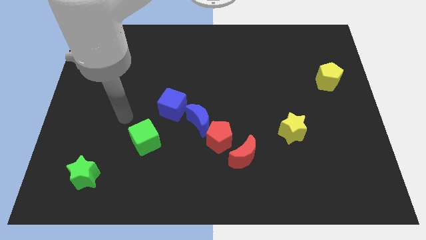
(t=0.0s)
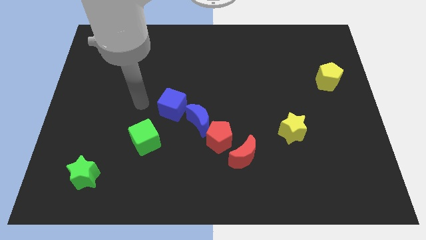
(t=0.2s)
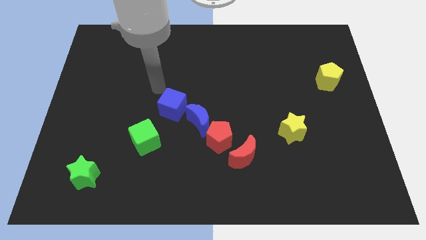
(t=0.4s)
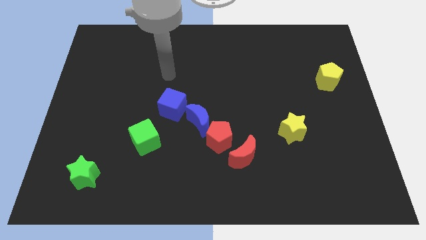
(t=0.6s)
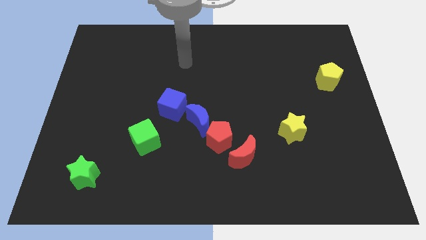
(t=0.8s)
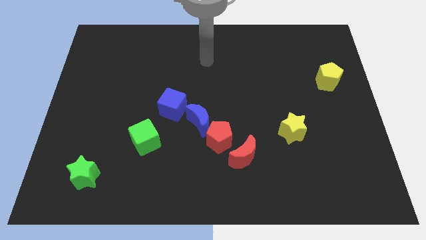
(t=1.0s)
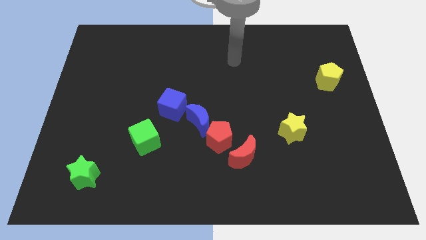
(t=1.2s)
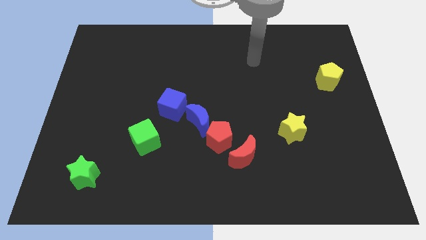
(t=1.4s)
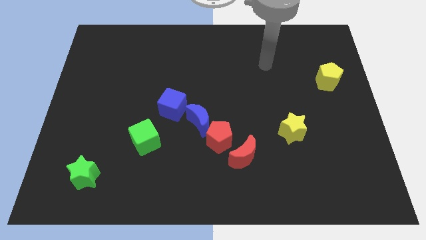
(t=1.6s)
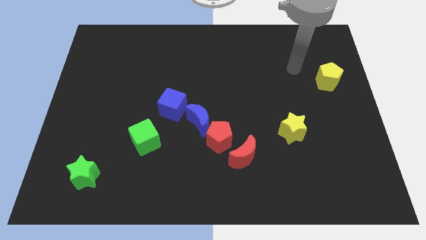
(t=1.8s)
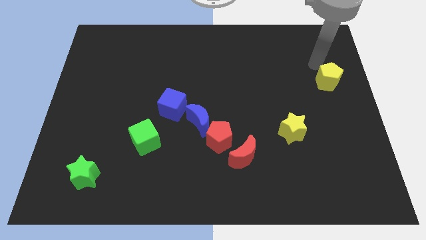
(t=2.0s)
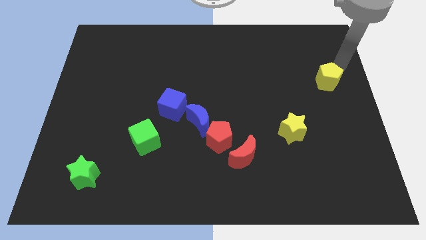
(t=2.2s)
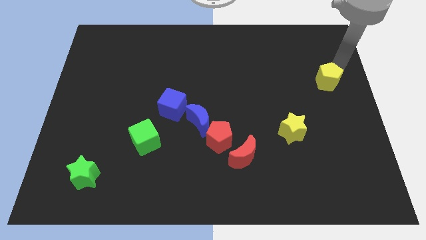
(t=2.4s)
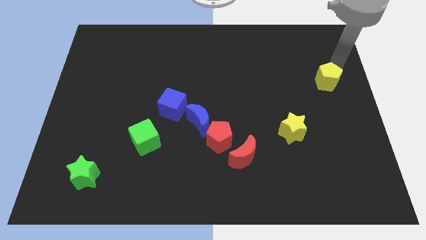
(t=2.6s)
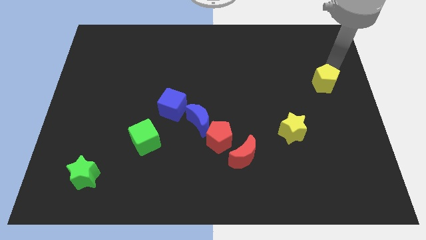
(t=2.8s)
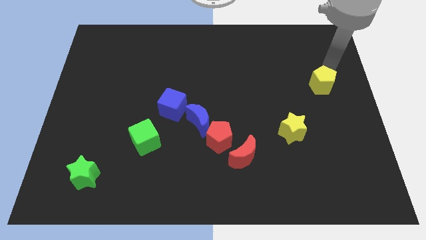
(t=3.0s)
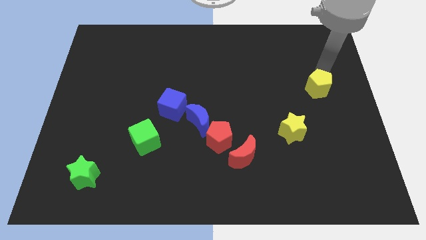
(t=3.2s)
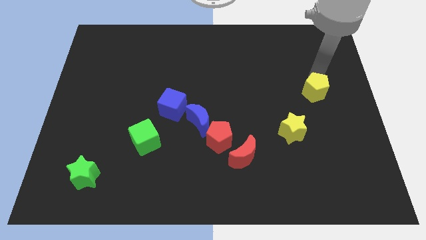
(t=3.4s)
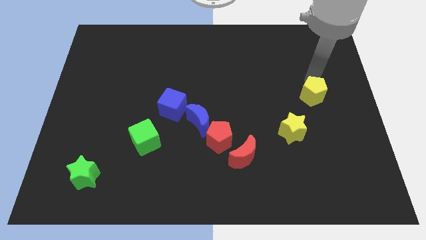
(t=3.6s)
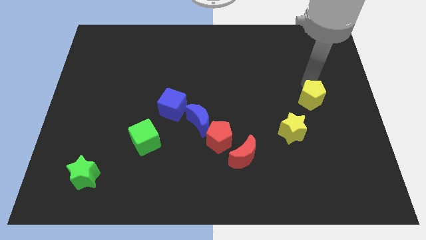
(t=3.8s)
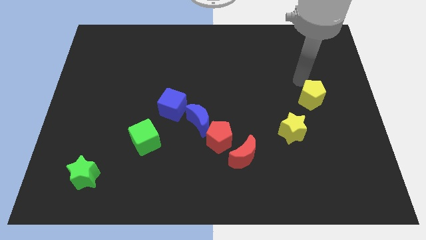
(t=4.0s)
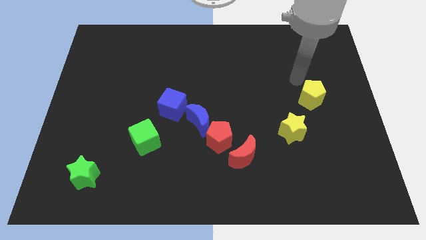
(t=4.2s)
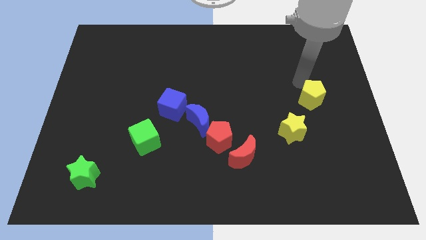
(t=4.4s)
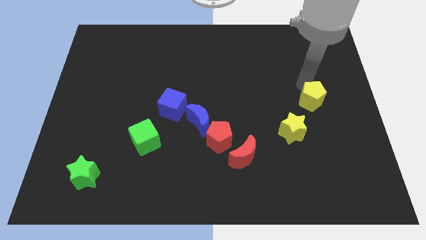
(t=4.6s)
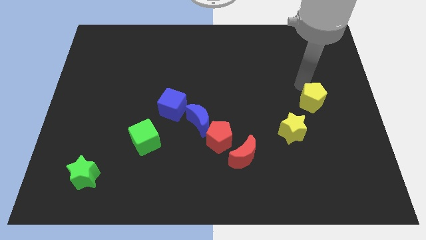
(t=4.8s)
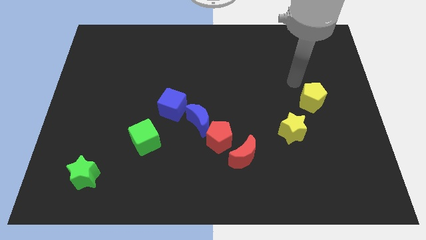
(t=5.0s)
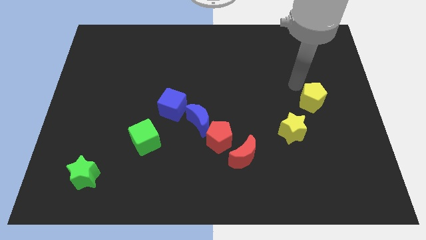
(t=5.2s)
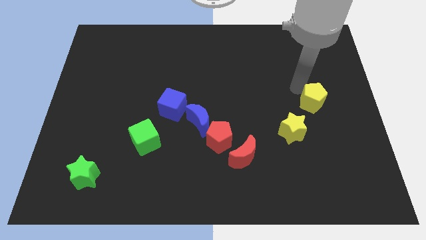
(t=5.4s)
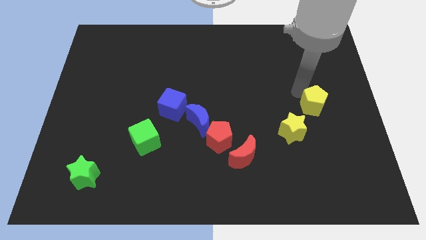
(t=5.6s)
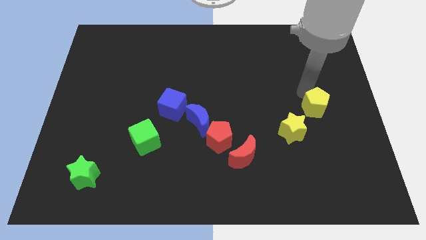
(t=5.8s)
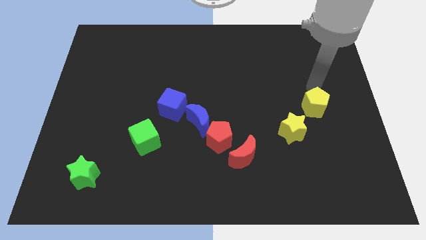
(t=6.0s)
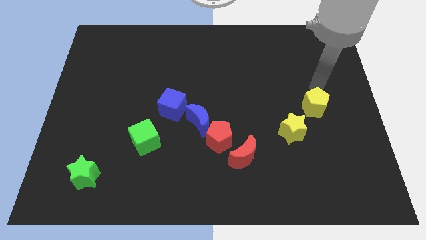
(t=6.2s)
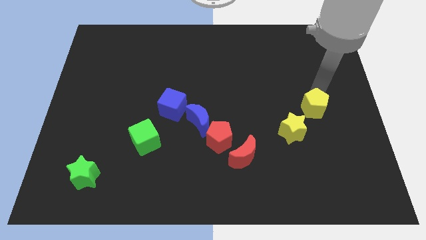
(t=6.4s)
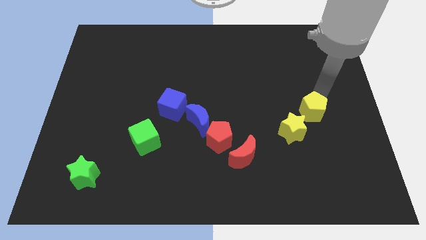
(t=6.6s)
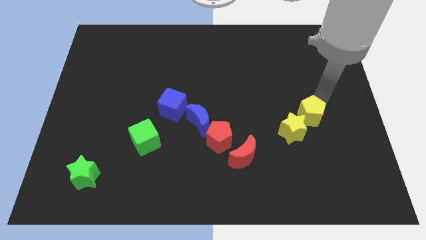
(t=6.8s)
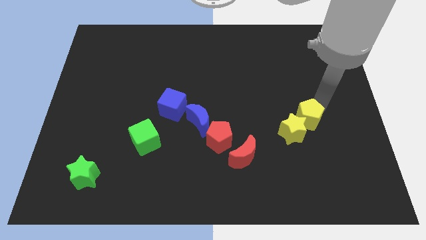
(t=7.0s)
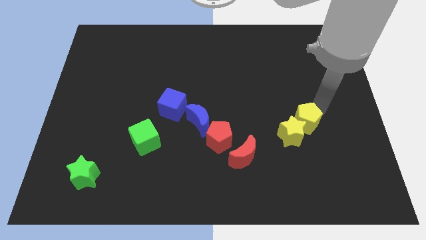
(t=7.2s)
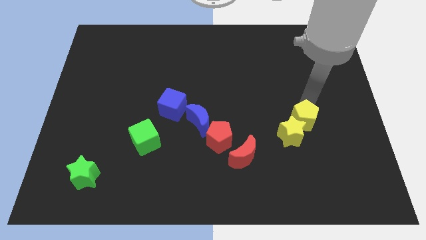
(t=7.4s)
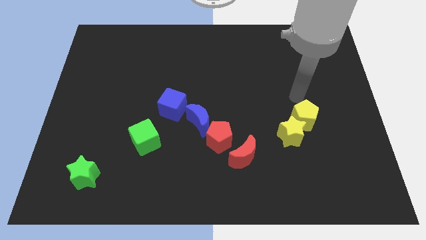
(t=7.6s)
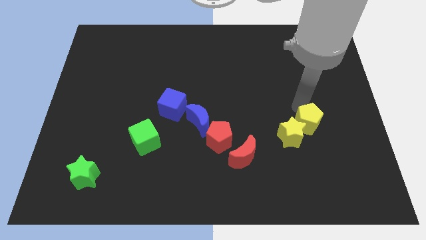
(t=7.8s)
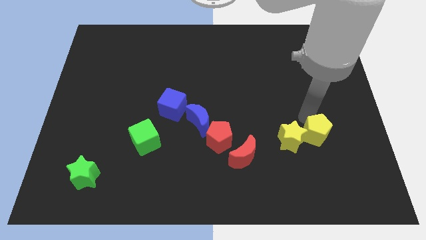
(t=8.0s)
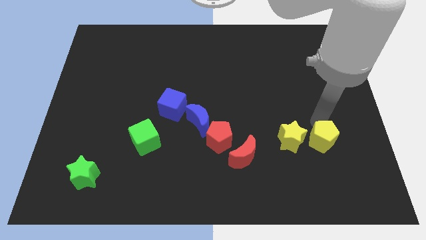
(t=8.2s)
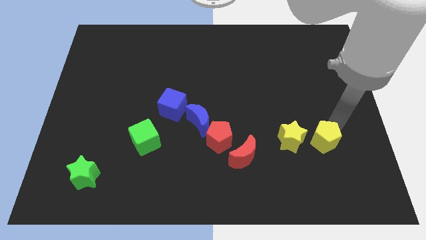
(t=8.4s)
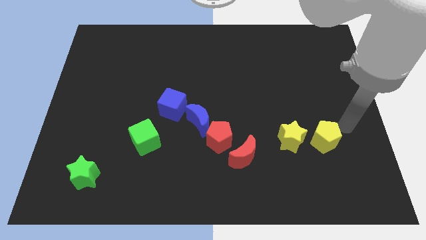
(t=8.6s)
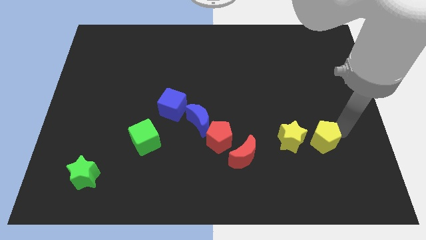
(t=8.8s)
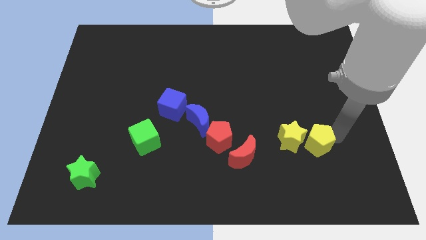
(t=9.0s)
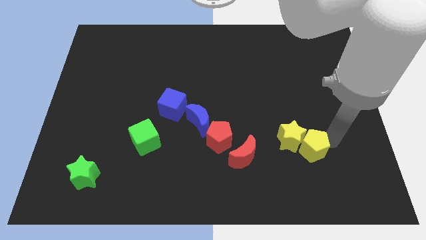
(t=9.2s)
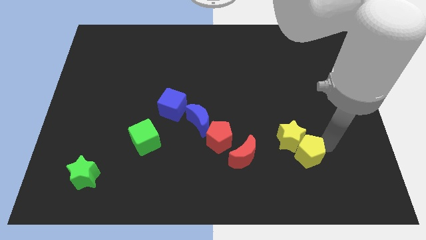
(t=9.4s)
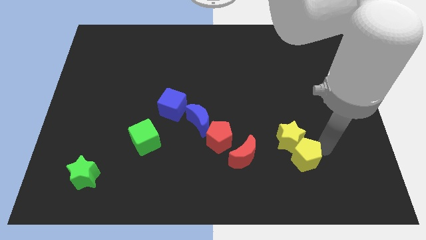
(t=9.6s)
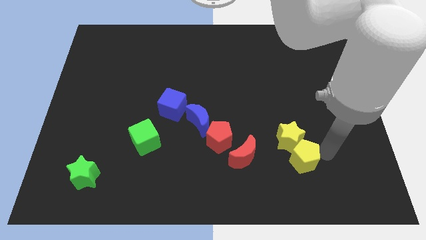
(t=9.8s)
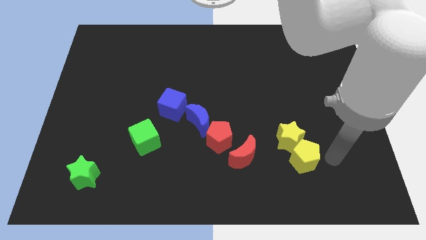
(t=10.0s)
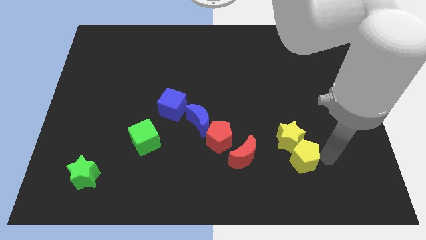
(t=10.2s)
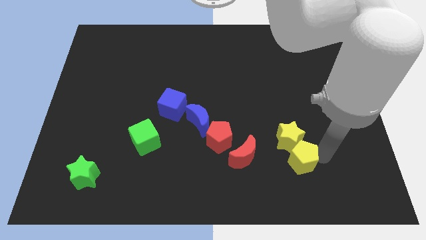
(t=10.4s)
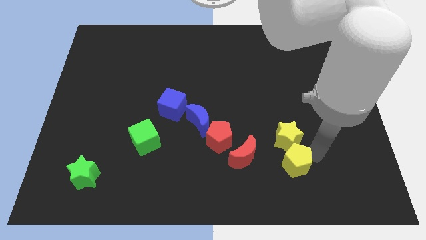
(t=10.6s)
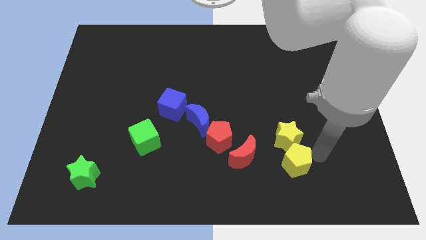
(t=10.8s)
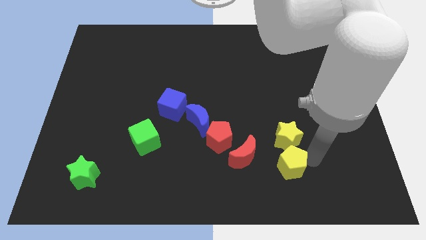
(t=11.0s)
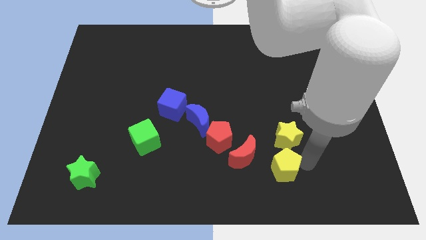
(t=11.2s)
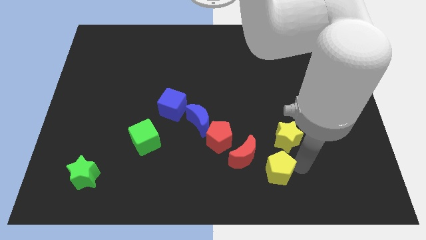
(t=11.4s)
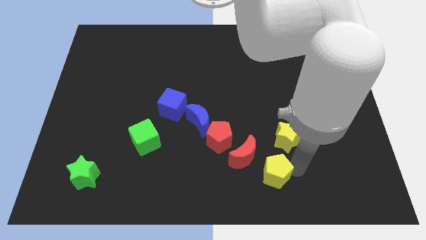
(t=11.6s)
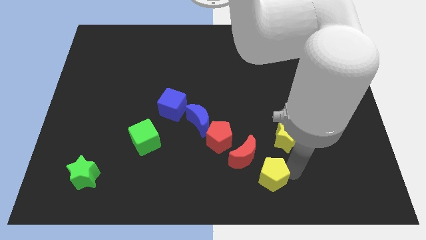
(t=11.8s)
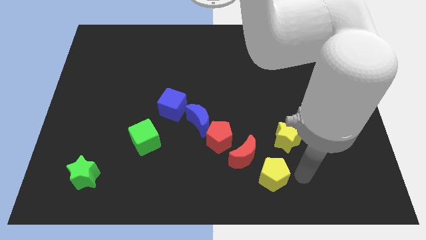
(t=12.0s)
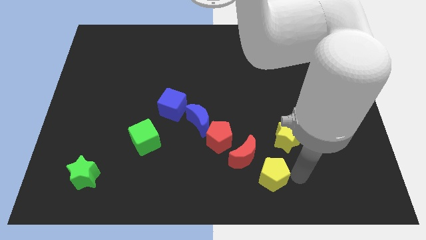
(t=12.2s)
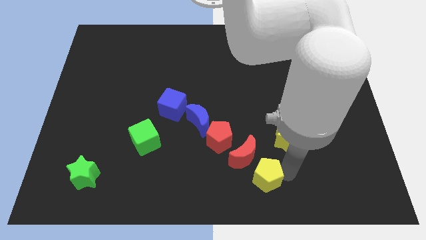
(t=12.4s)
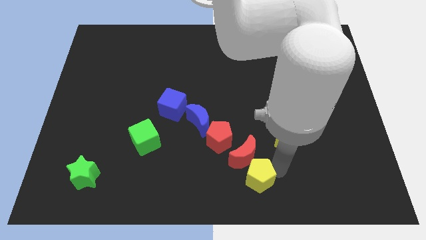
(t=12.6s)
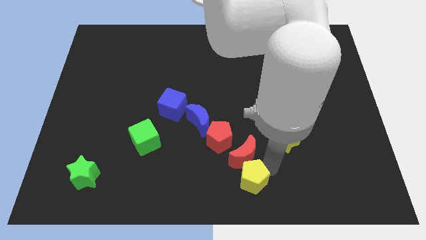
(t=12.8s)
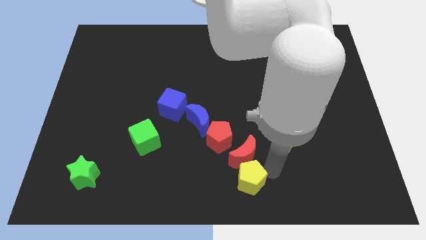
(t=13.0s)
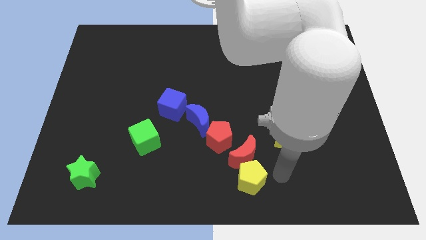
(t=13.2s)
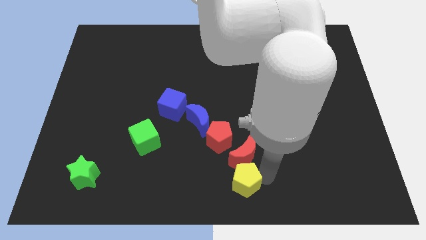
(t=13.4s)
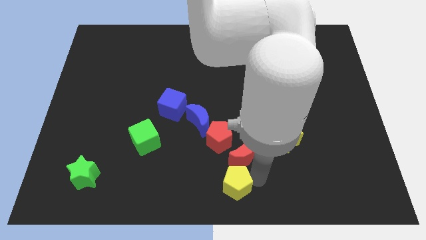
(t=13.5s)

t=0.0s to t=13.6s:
move the yellow pentagon to the bottom side of the red pentagon

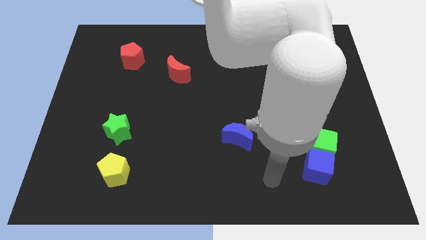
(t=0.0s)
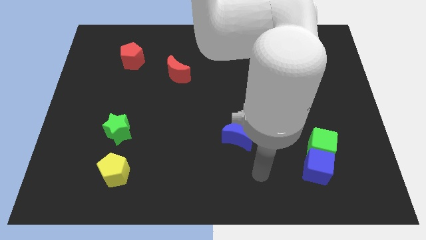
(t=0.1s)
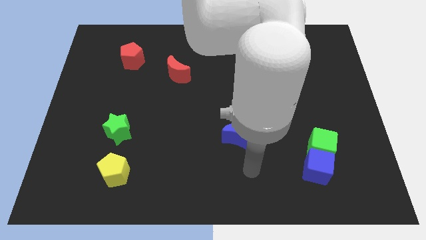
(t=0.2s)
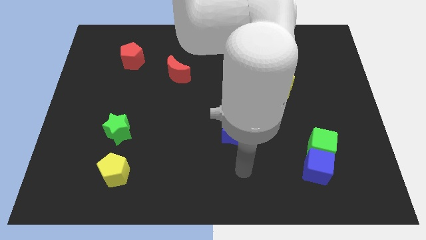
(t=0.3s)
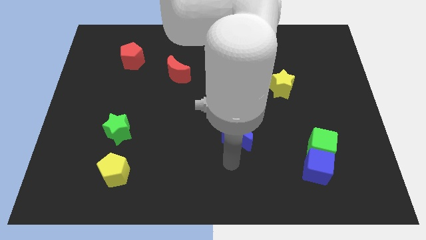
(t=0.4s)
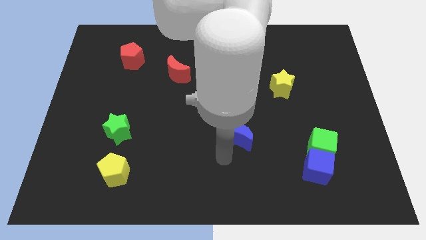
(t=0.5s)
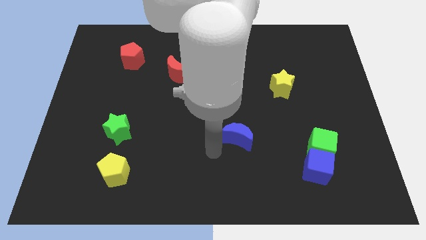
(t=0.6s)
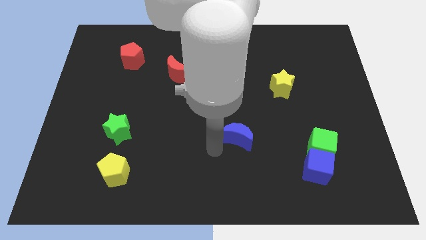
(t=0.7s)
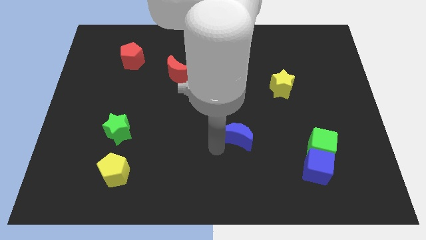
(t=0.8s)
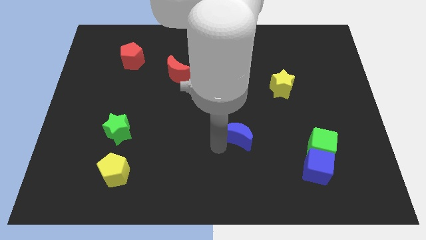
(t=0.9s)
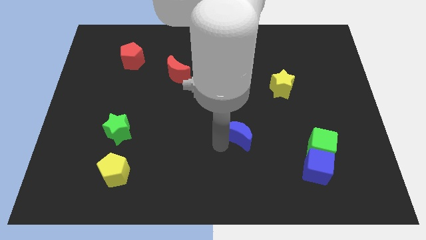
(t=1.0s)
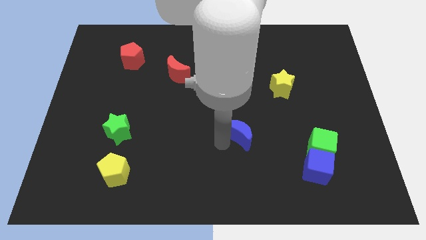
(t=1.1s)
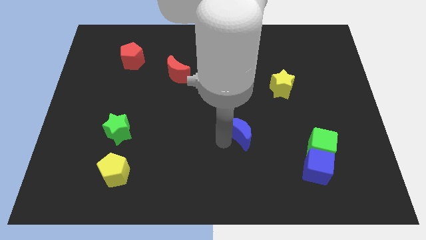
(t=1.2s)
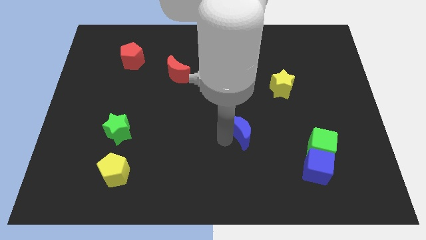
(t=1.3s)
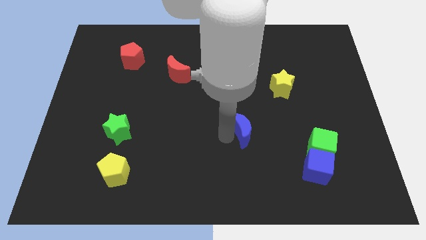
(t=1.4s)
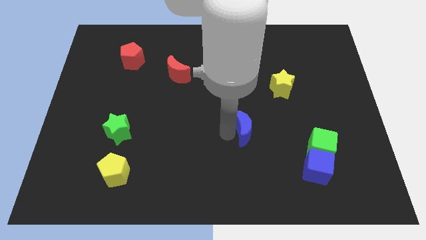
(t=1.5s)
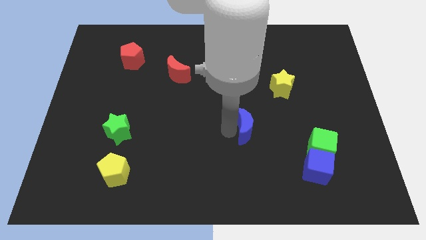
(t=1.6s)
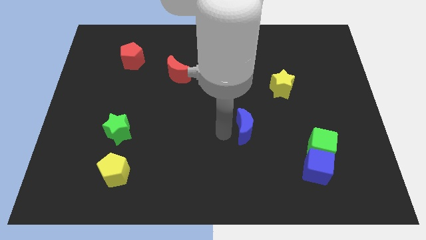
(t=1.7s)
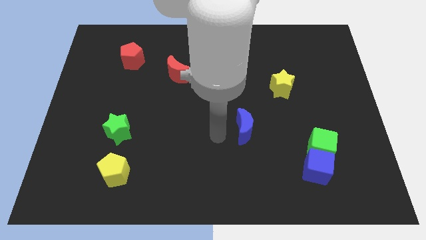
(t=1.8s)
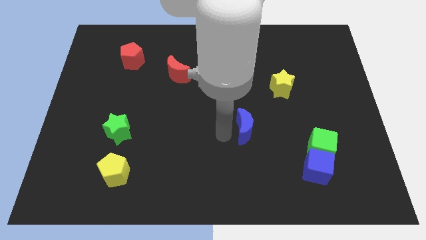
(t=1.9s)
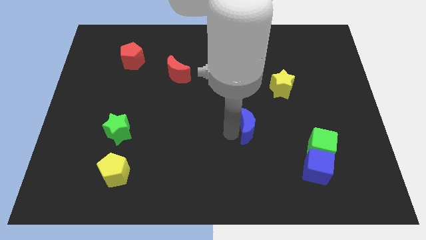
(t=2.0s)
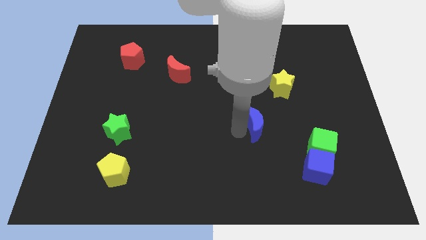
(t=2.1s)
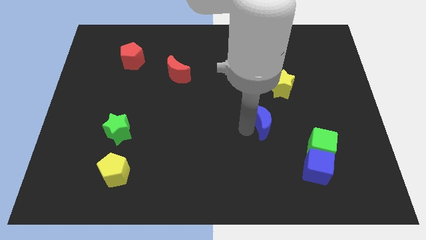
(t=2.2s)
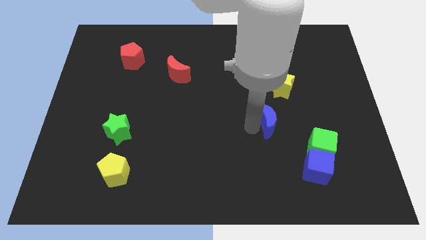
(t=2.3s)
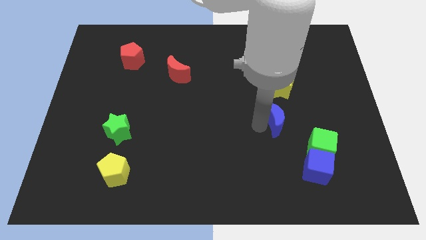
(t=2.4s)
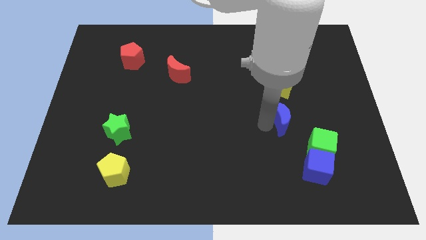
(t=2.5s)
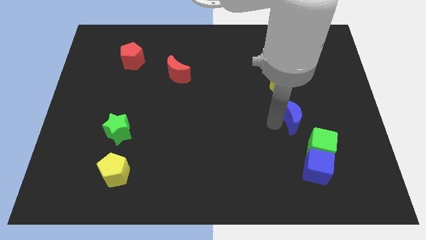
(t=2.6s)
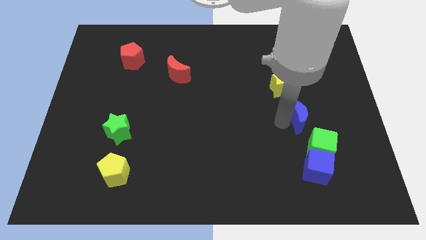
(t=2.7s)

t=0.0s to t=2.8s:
move the blue moon above the green cube
